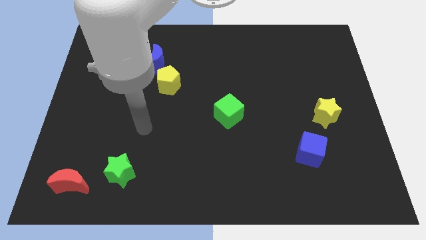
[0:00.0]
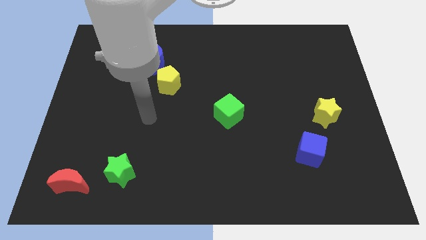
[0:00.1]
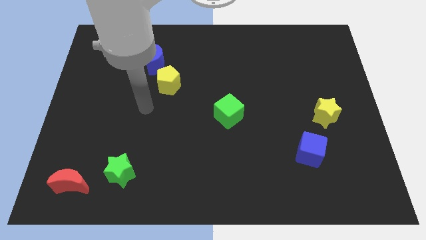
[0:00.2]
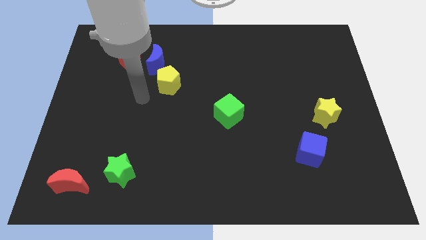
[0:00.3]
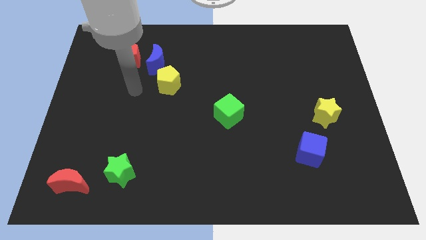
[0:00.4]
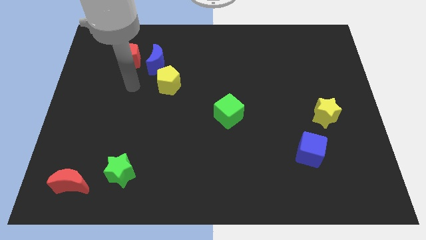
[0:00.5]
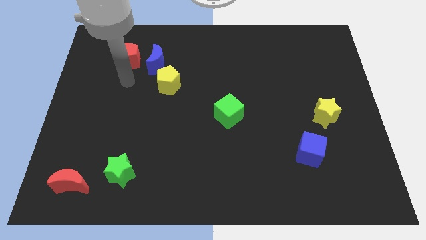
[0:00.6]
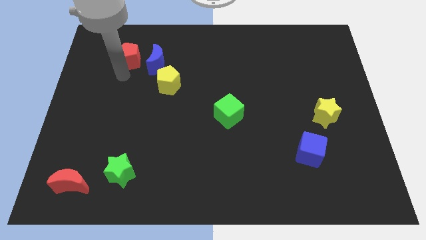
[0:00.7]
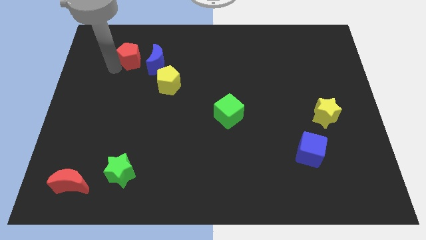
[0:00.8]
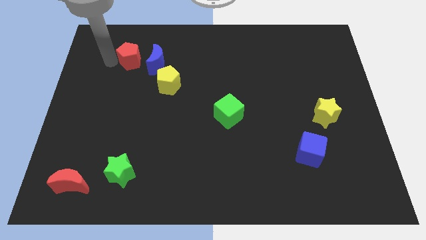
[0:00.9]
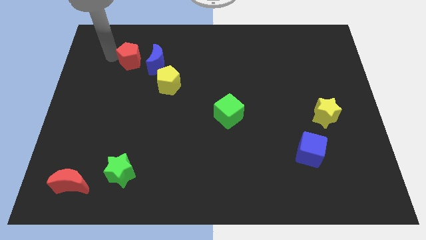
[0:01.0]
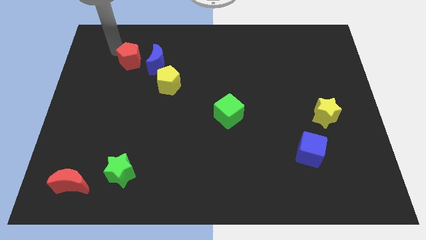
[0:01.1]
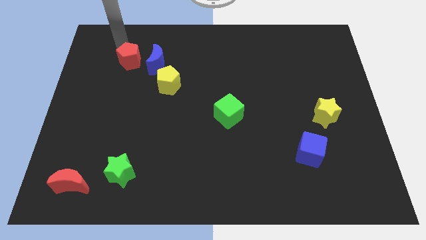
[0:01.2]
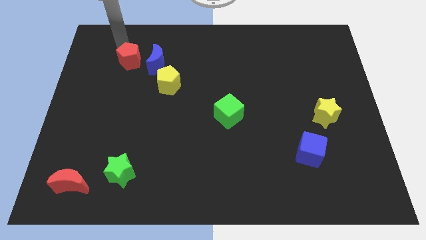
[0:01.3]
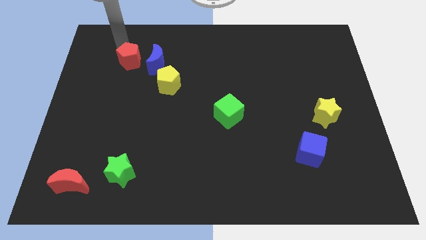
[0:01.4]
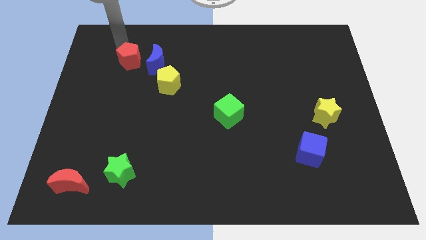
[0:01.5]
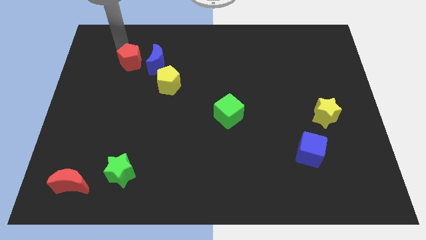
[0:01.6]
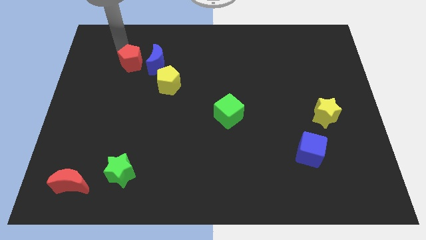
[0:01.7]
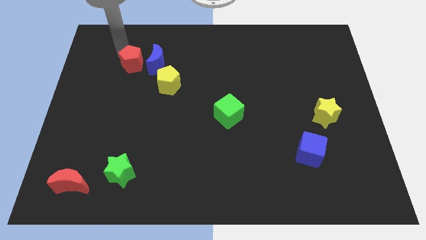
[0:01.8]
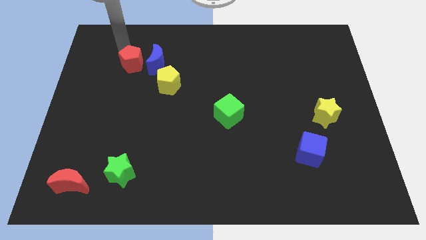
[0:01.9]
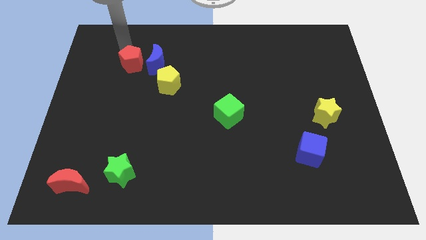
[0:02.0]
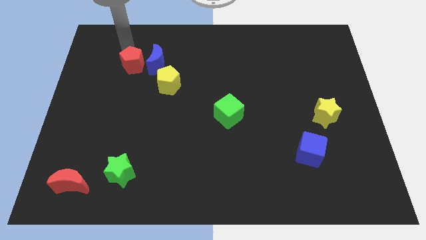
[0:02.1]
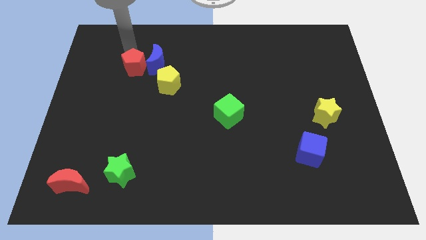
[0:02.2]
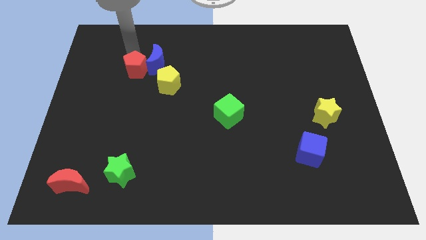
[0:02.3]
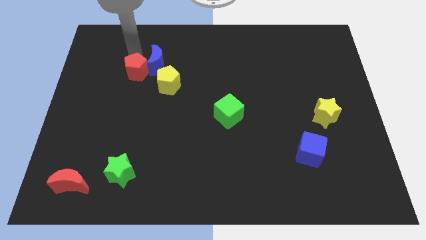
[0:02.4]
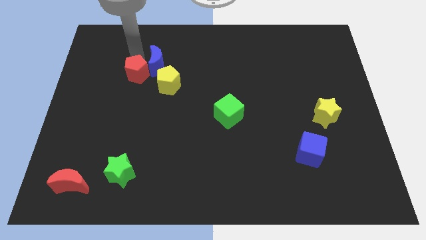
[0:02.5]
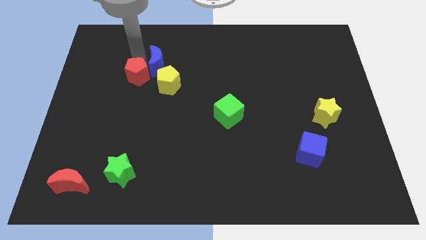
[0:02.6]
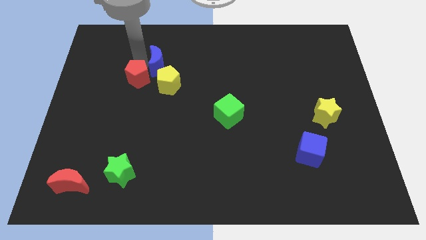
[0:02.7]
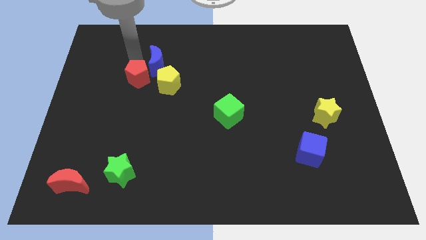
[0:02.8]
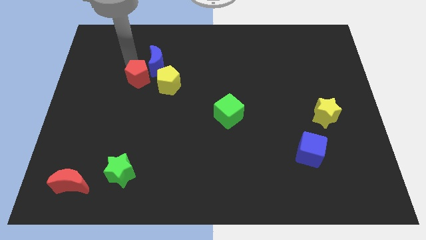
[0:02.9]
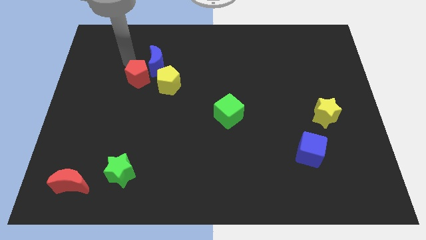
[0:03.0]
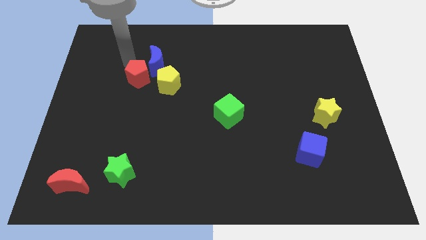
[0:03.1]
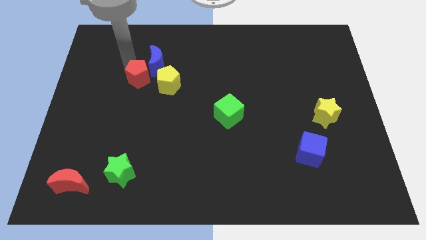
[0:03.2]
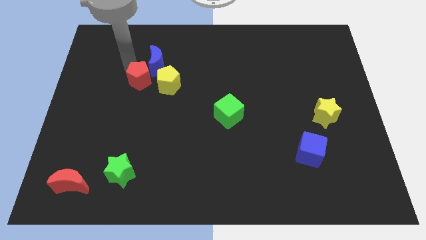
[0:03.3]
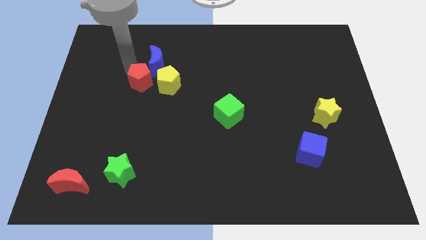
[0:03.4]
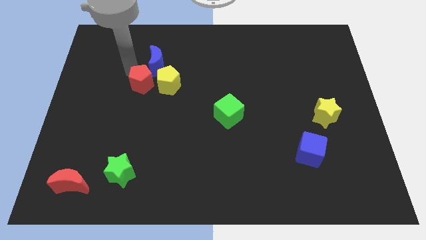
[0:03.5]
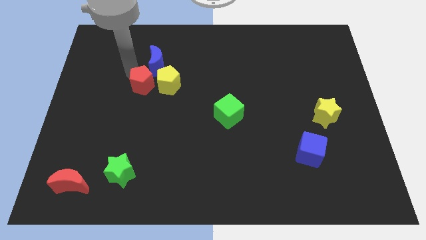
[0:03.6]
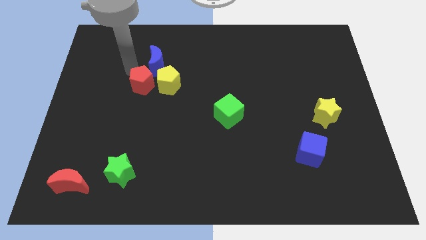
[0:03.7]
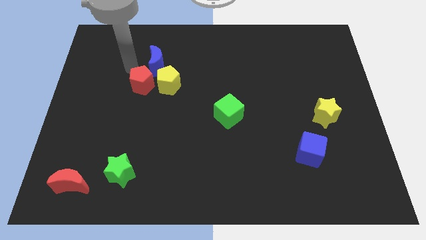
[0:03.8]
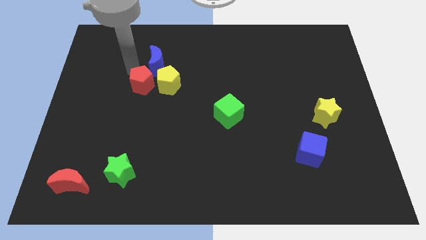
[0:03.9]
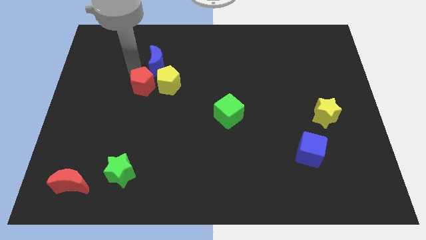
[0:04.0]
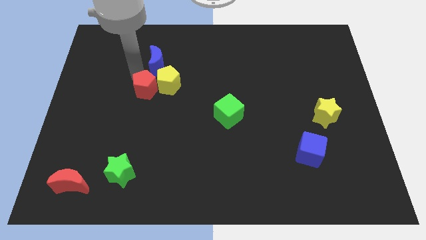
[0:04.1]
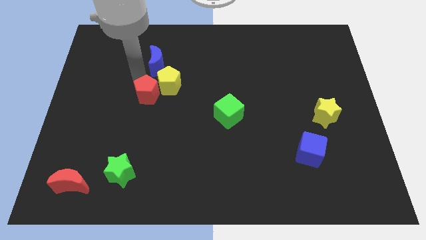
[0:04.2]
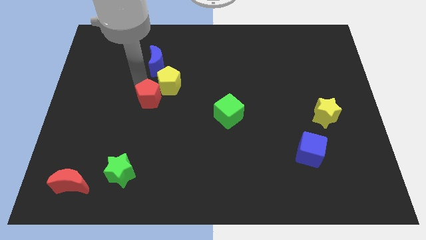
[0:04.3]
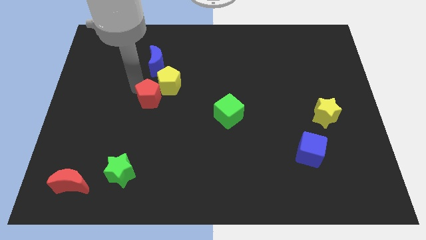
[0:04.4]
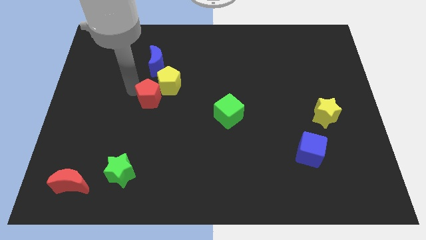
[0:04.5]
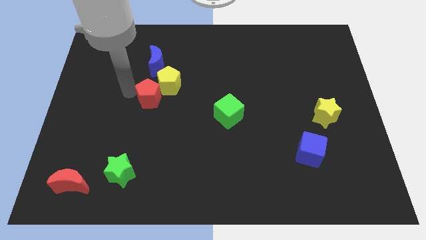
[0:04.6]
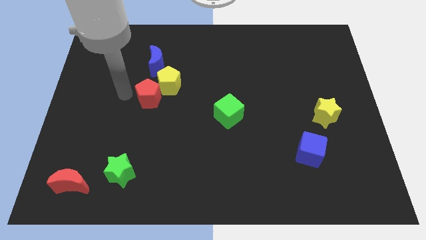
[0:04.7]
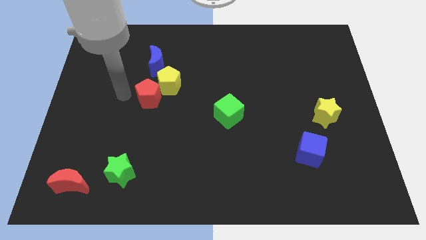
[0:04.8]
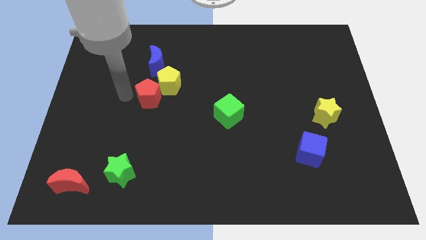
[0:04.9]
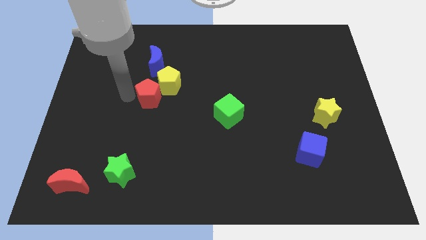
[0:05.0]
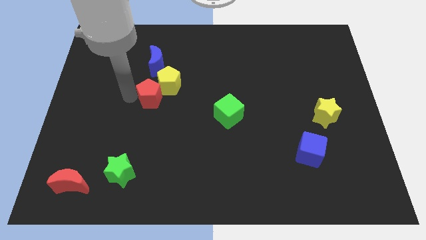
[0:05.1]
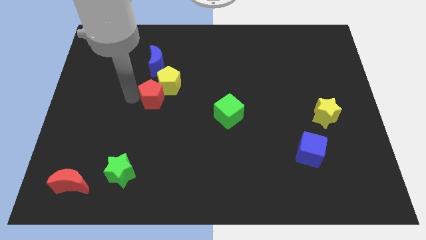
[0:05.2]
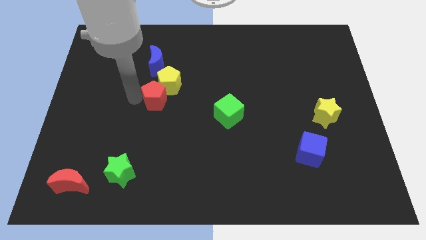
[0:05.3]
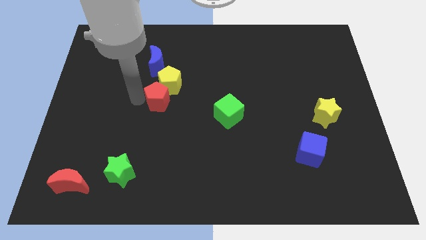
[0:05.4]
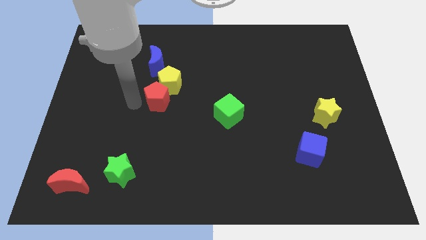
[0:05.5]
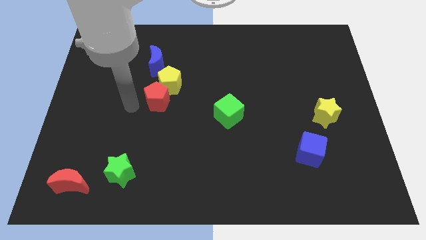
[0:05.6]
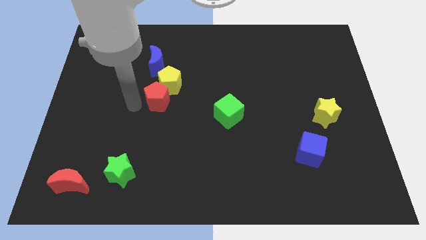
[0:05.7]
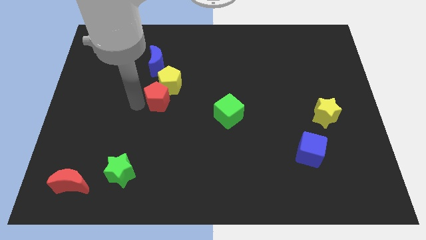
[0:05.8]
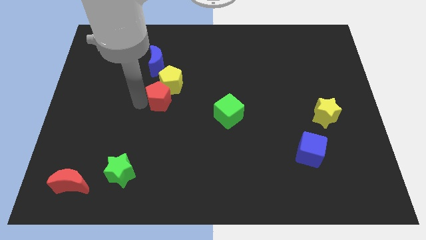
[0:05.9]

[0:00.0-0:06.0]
move the red pentagon to the middle of the board

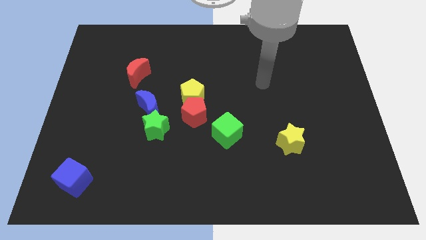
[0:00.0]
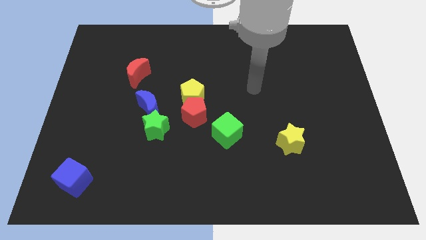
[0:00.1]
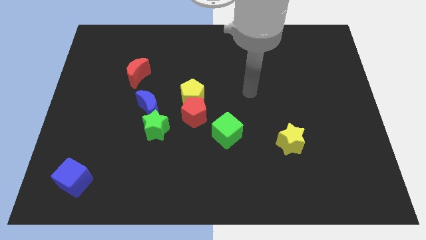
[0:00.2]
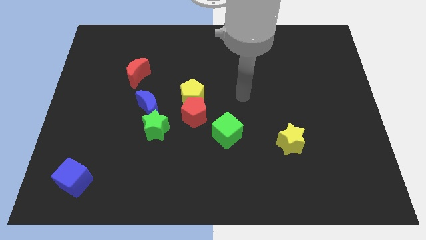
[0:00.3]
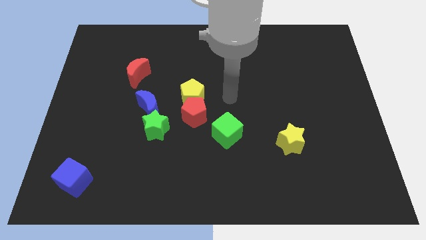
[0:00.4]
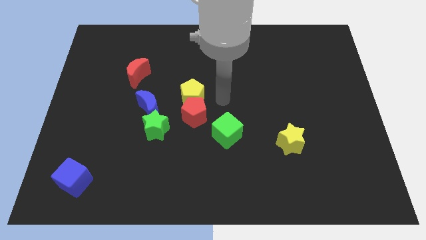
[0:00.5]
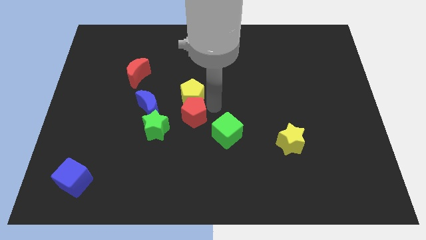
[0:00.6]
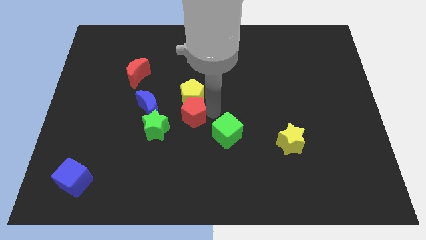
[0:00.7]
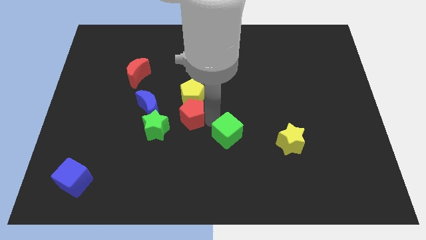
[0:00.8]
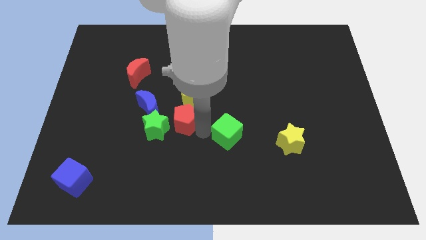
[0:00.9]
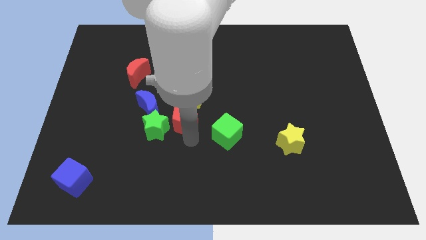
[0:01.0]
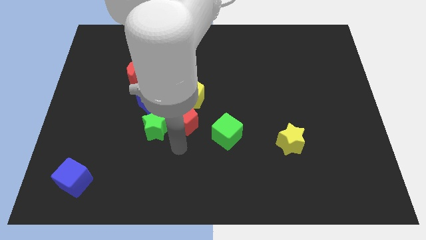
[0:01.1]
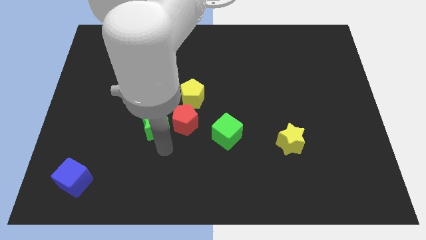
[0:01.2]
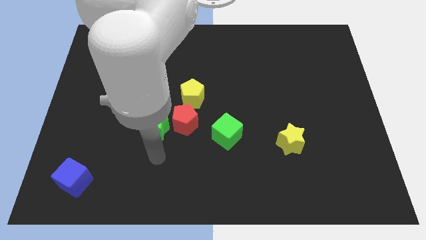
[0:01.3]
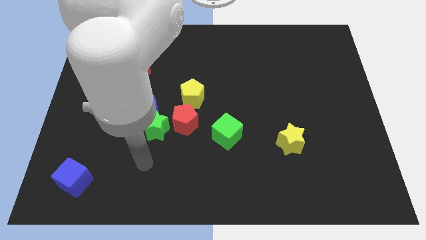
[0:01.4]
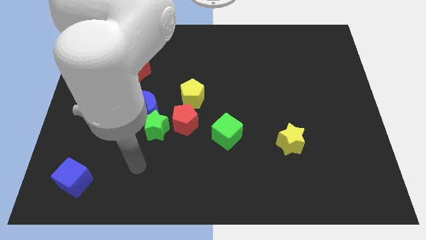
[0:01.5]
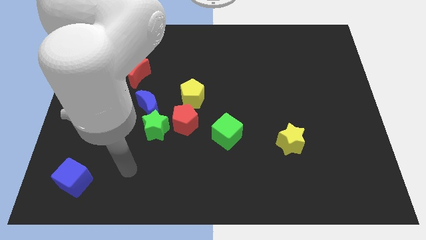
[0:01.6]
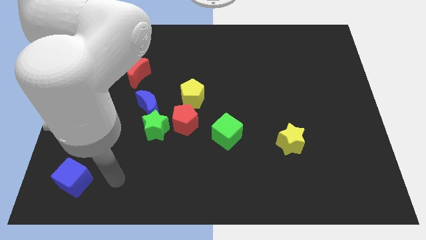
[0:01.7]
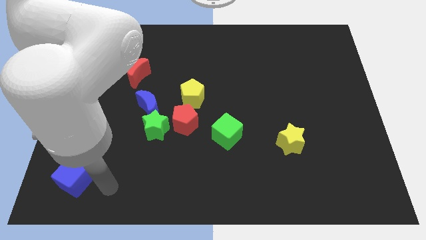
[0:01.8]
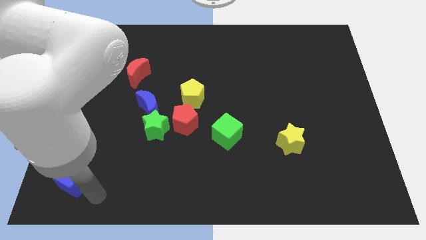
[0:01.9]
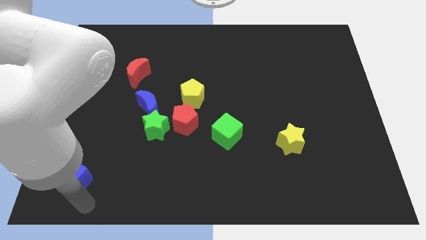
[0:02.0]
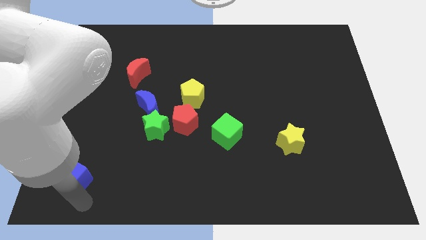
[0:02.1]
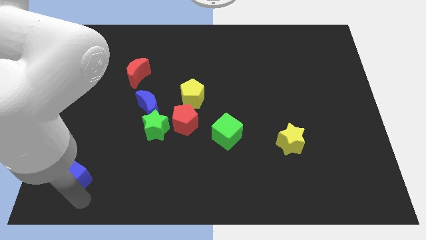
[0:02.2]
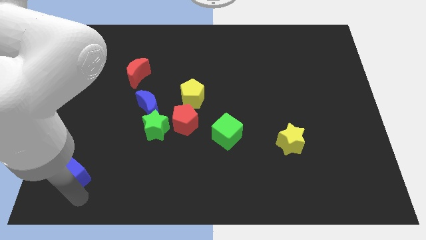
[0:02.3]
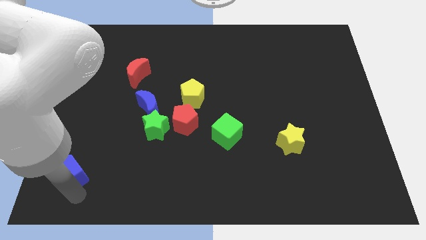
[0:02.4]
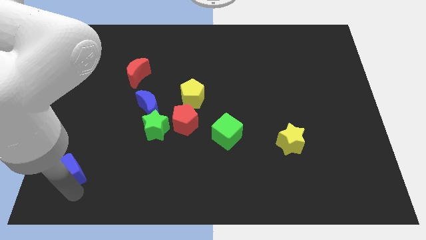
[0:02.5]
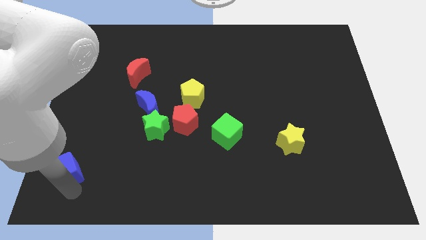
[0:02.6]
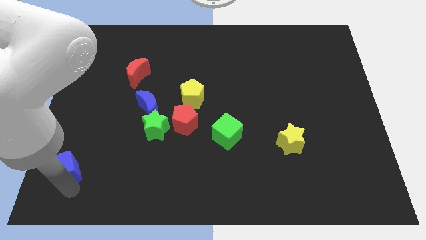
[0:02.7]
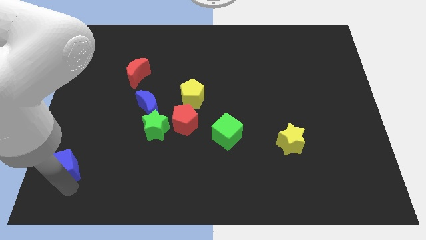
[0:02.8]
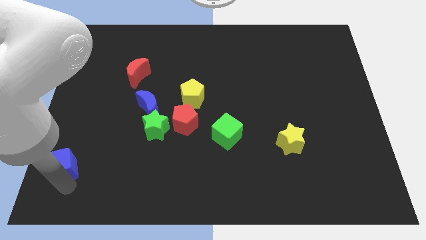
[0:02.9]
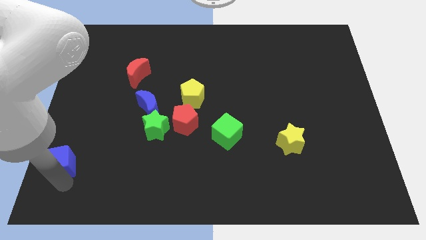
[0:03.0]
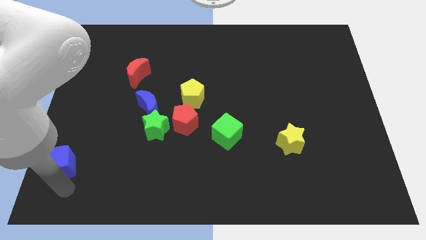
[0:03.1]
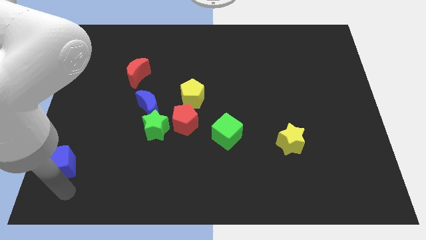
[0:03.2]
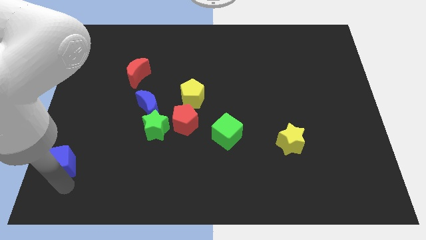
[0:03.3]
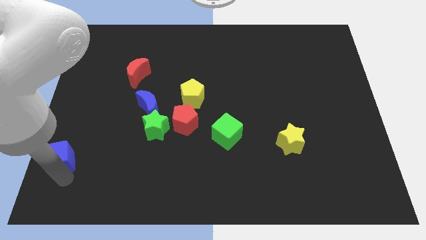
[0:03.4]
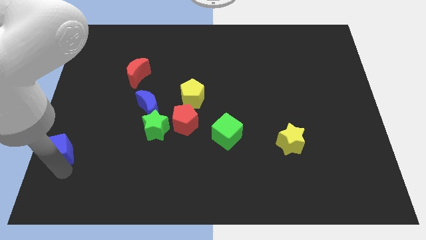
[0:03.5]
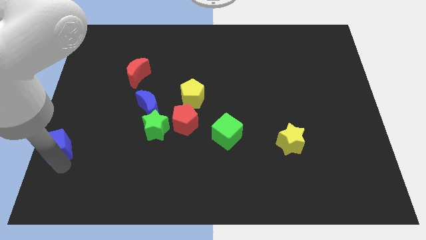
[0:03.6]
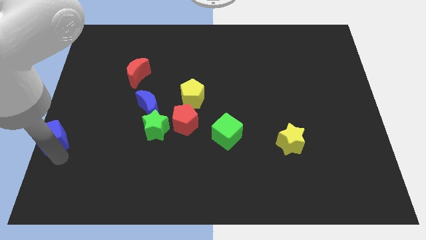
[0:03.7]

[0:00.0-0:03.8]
slide the blue cube to the left side
